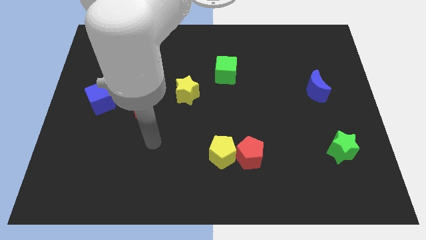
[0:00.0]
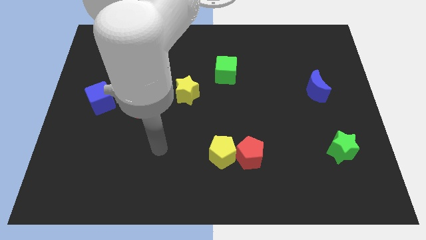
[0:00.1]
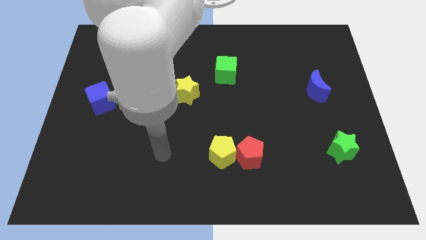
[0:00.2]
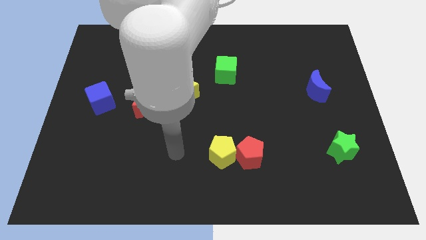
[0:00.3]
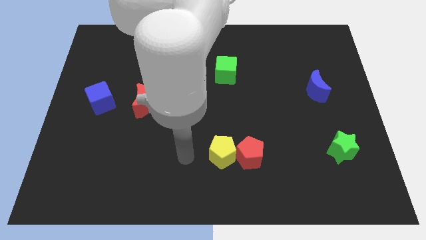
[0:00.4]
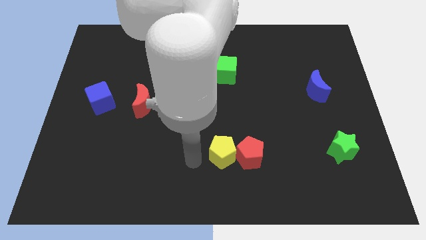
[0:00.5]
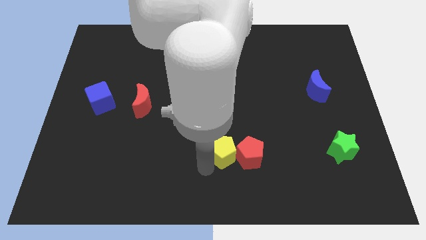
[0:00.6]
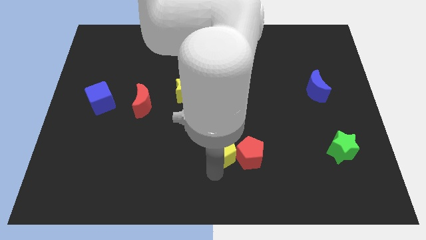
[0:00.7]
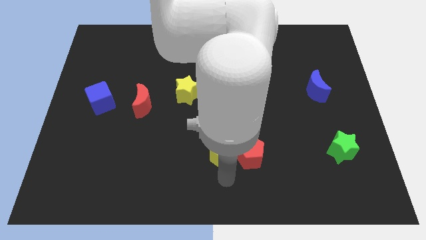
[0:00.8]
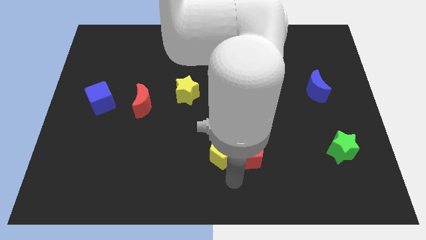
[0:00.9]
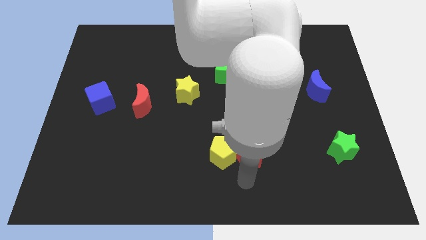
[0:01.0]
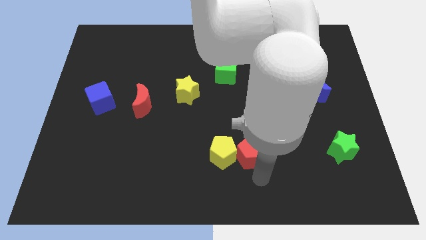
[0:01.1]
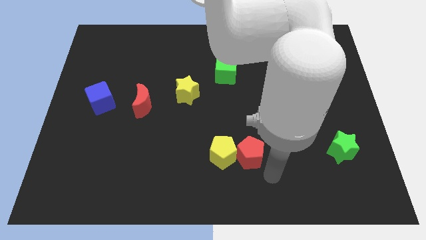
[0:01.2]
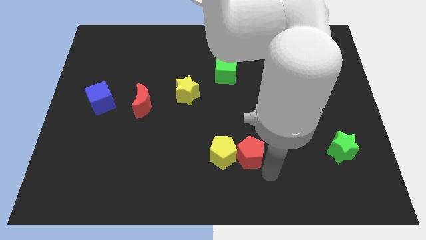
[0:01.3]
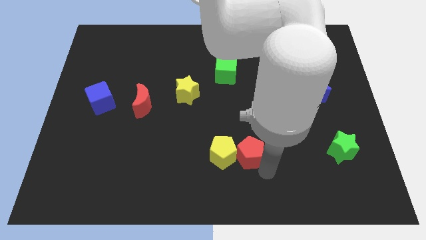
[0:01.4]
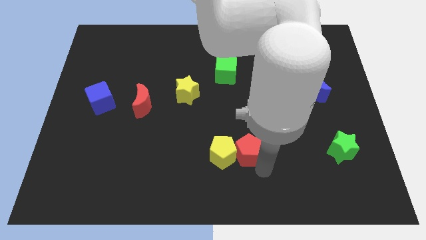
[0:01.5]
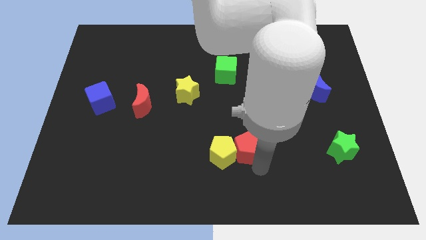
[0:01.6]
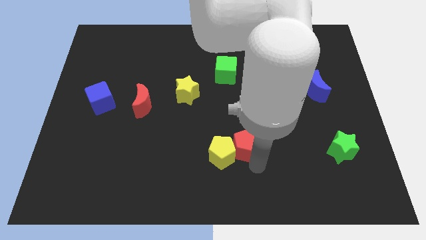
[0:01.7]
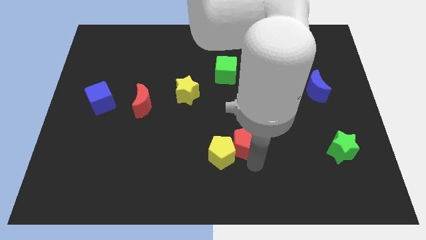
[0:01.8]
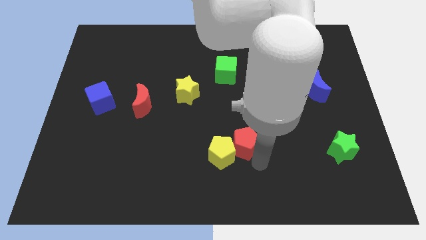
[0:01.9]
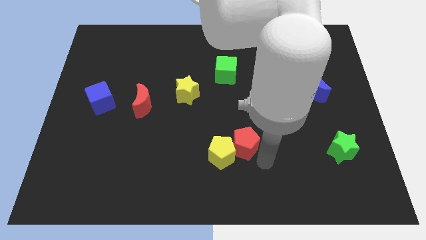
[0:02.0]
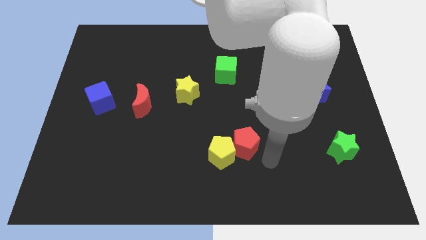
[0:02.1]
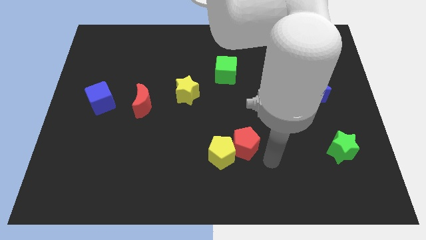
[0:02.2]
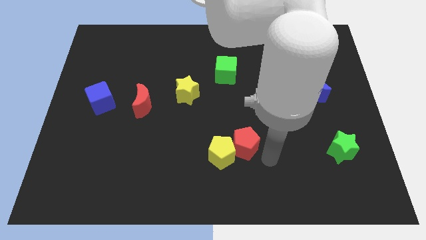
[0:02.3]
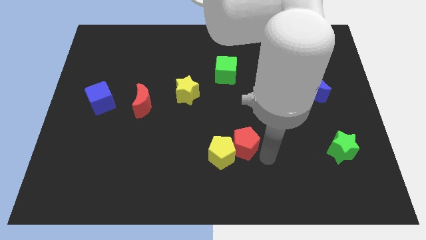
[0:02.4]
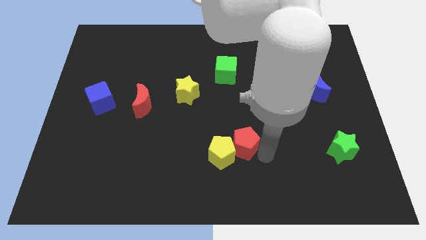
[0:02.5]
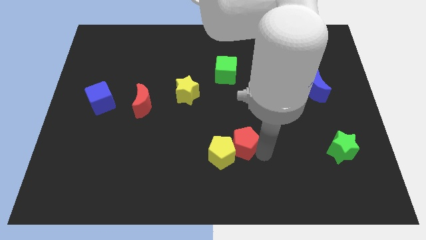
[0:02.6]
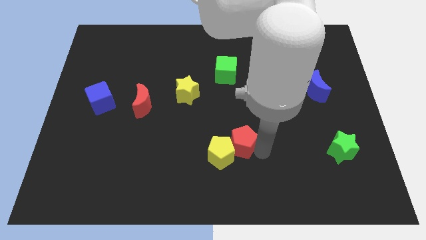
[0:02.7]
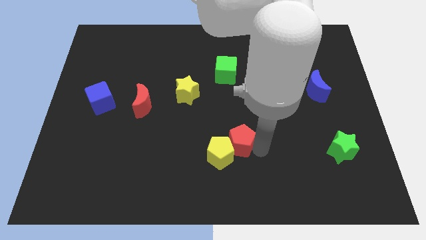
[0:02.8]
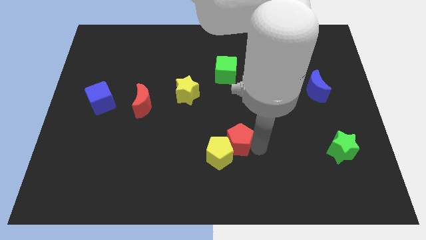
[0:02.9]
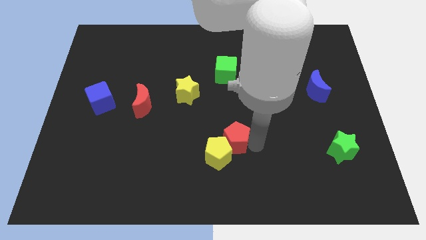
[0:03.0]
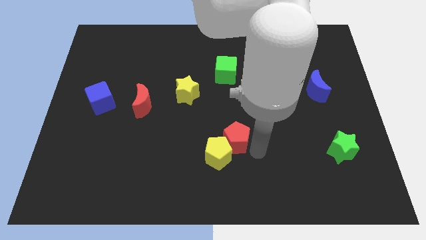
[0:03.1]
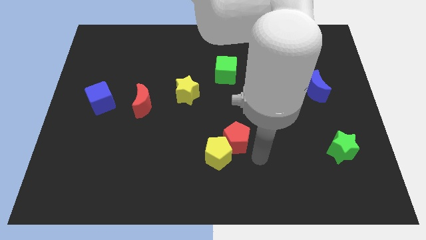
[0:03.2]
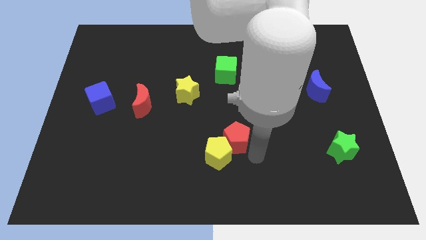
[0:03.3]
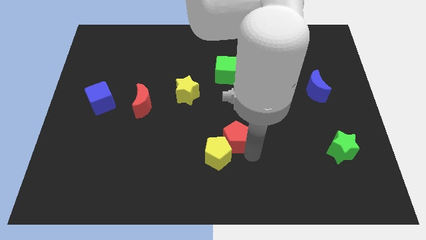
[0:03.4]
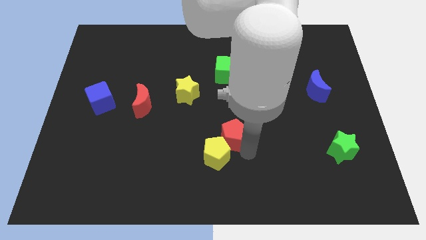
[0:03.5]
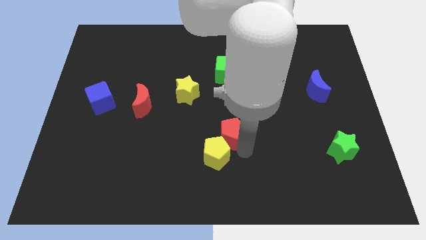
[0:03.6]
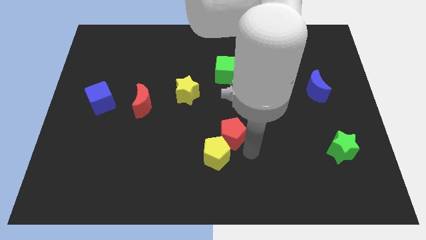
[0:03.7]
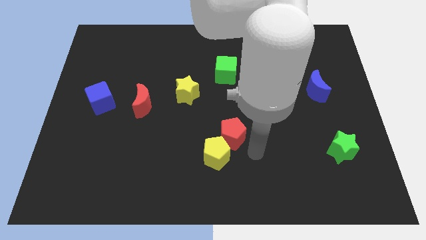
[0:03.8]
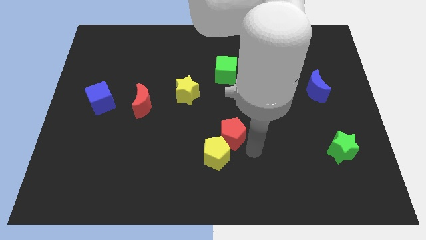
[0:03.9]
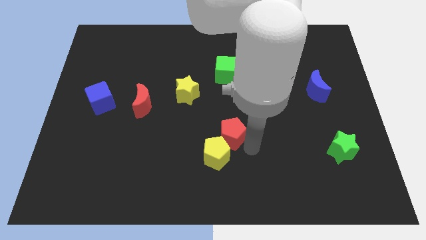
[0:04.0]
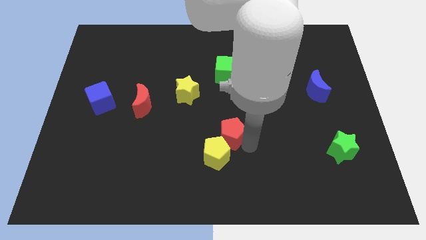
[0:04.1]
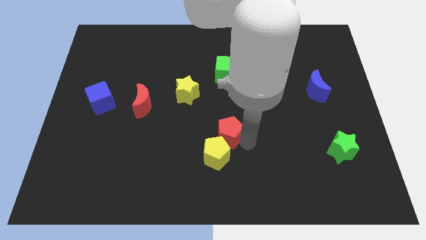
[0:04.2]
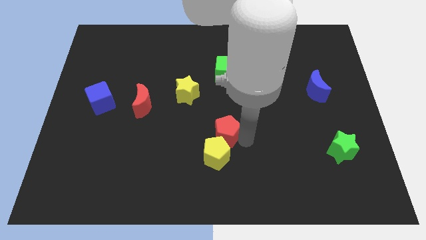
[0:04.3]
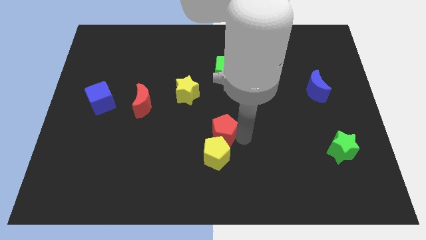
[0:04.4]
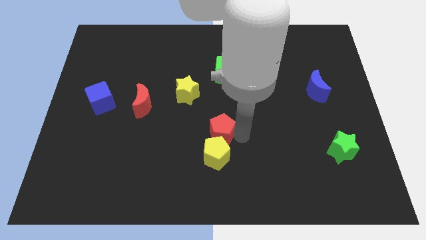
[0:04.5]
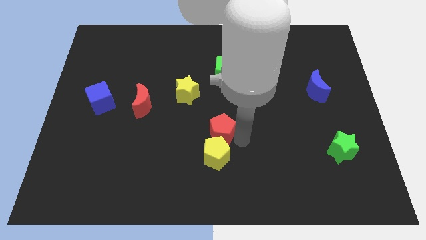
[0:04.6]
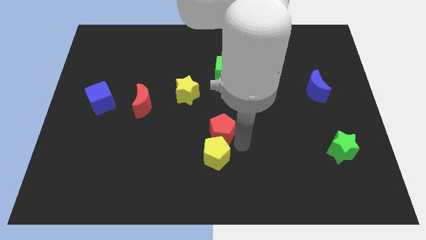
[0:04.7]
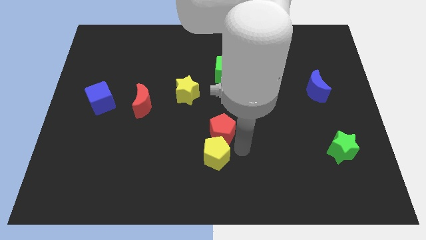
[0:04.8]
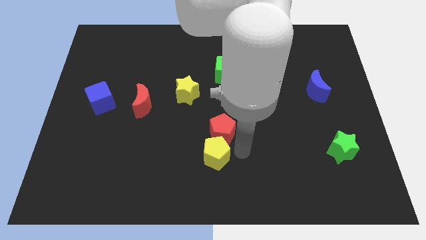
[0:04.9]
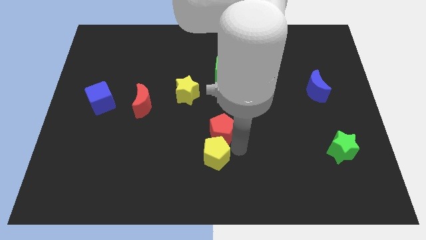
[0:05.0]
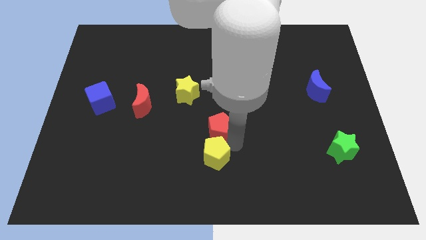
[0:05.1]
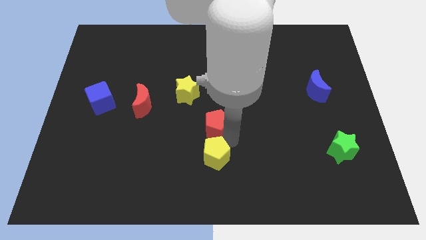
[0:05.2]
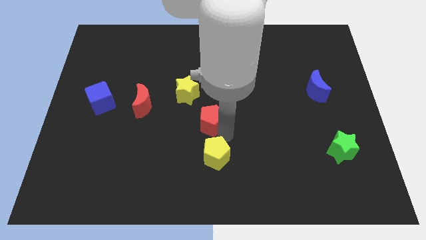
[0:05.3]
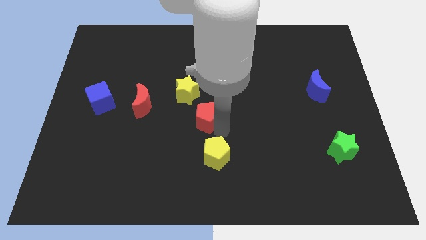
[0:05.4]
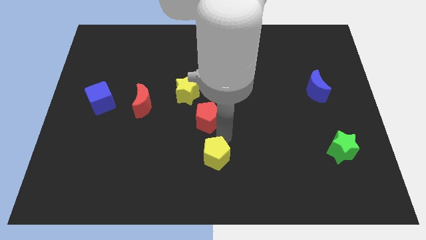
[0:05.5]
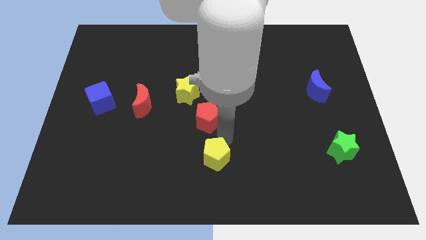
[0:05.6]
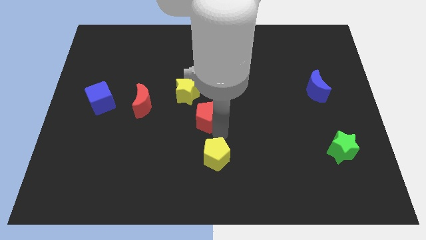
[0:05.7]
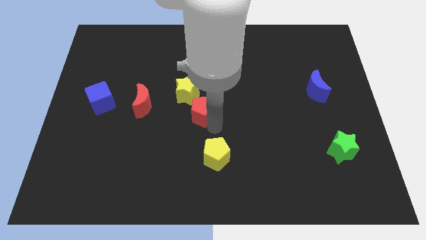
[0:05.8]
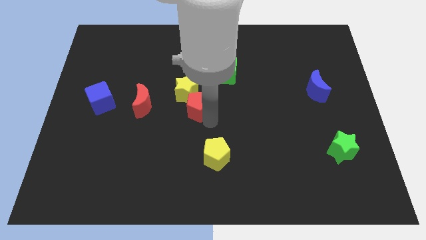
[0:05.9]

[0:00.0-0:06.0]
slide the red pentagon close to the yellow star

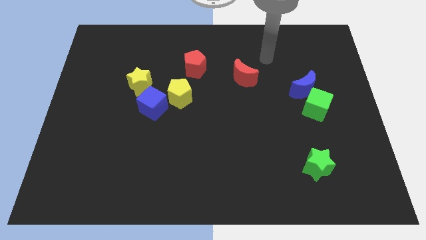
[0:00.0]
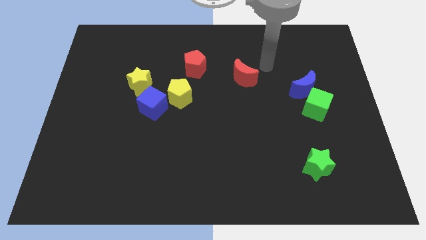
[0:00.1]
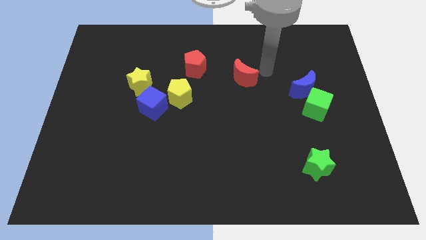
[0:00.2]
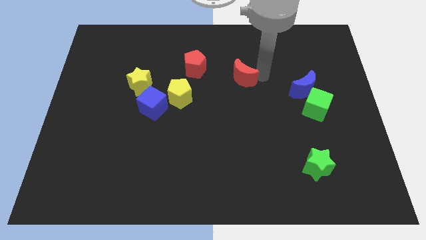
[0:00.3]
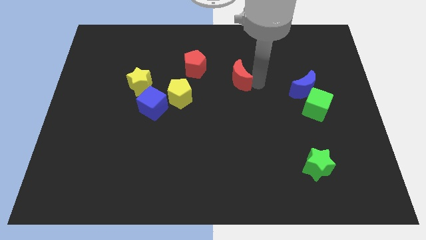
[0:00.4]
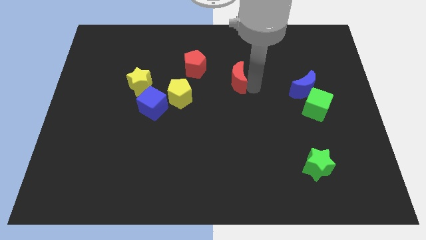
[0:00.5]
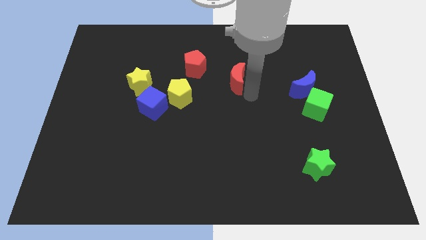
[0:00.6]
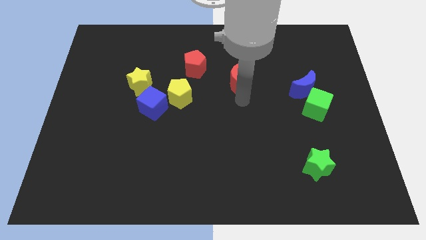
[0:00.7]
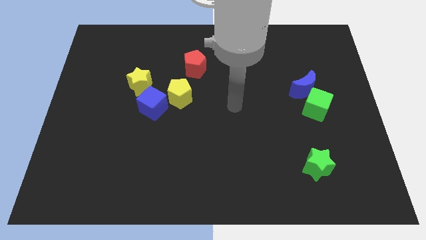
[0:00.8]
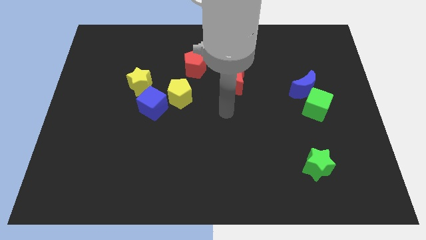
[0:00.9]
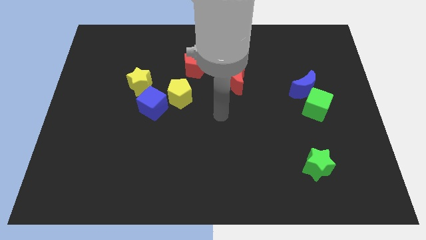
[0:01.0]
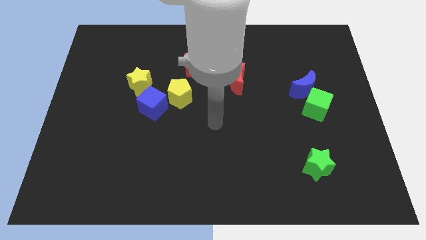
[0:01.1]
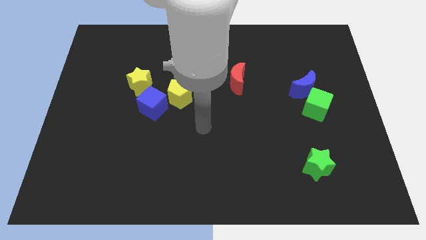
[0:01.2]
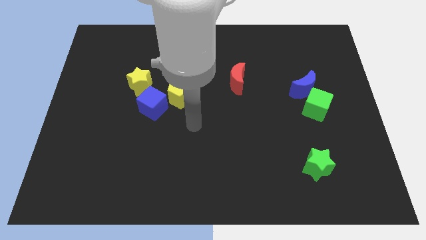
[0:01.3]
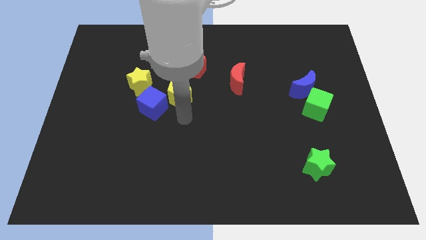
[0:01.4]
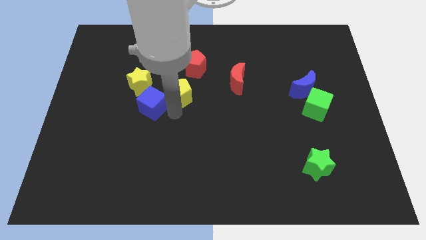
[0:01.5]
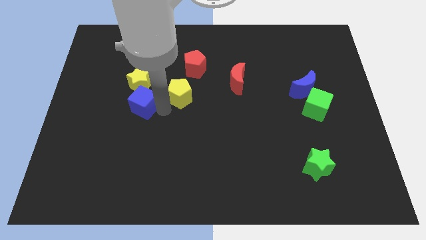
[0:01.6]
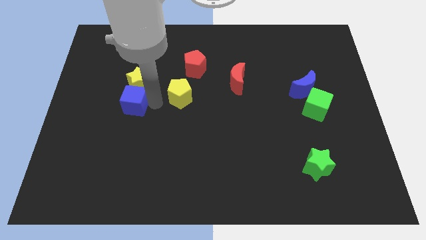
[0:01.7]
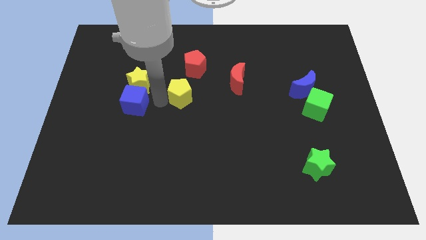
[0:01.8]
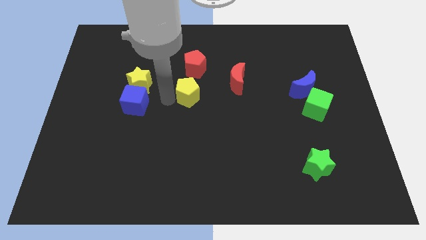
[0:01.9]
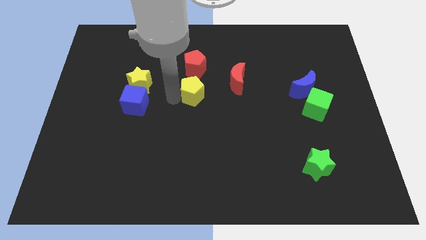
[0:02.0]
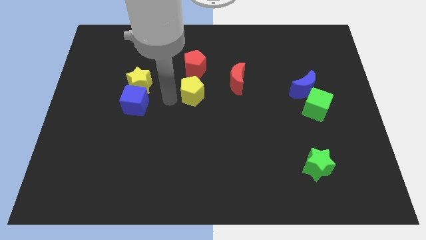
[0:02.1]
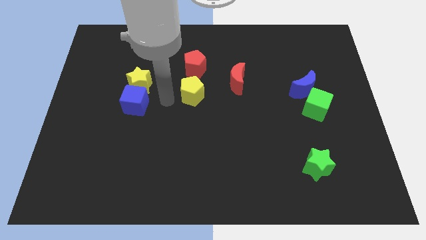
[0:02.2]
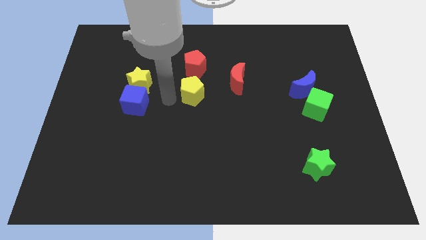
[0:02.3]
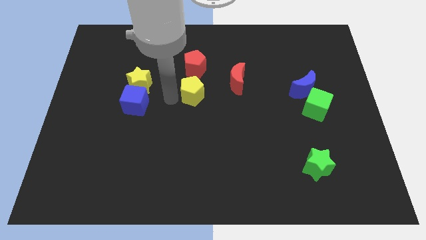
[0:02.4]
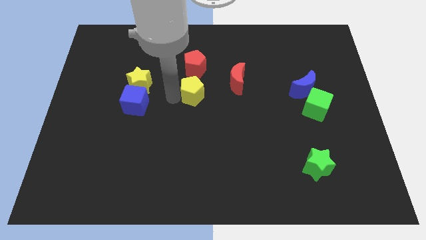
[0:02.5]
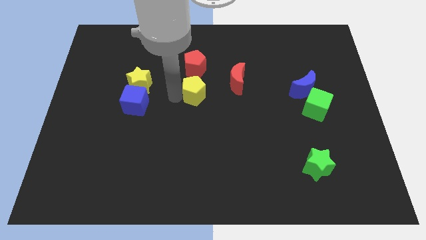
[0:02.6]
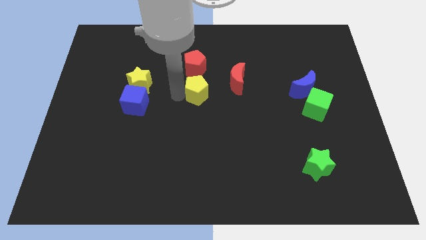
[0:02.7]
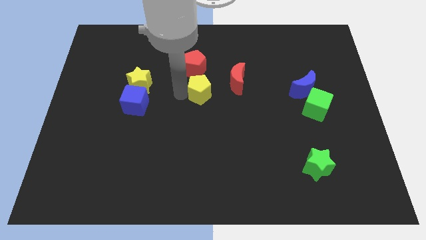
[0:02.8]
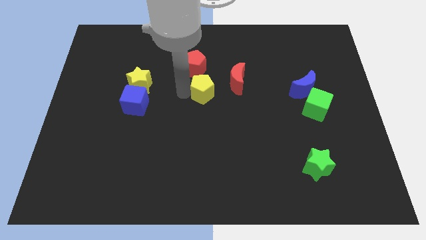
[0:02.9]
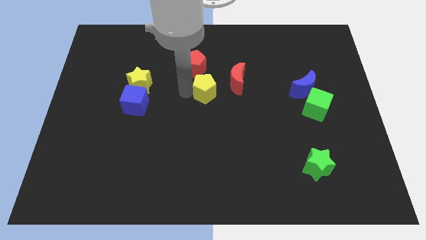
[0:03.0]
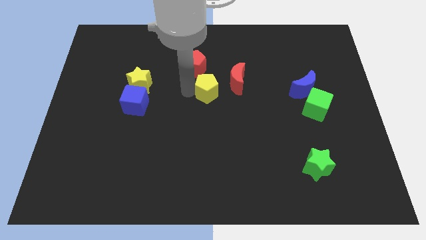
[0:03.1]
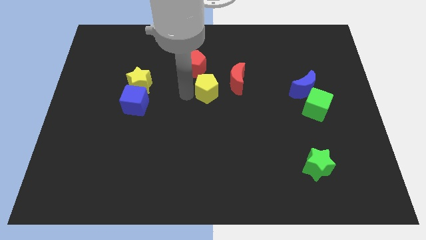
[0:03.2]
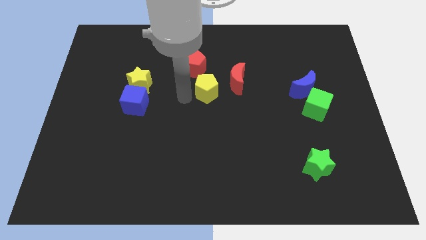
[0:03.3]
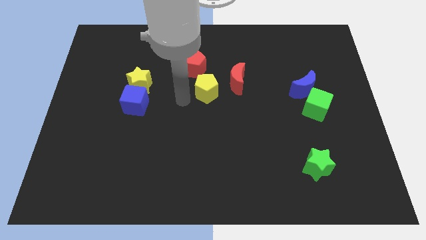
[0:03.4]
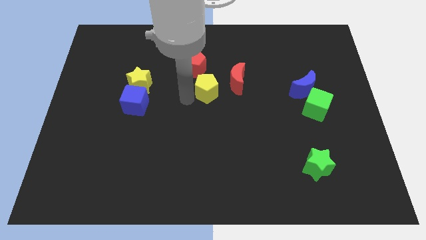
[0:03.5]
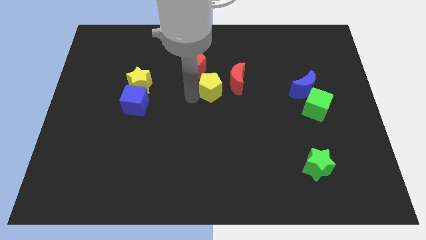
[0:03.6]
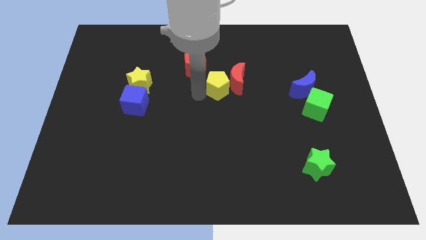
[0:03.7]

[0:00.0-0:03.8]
slide the yellow pentagon to the red moon
